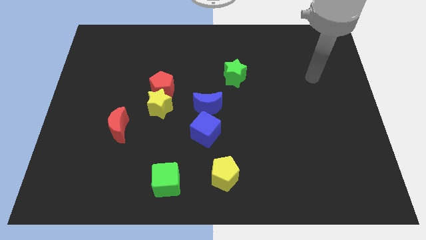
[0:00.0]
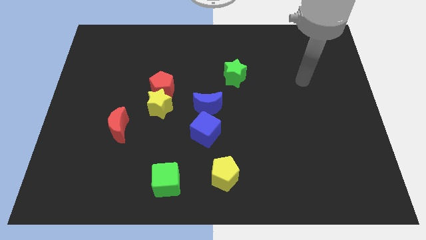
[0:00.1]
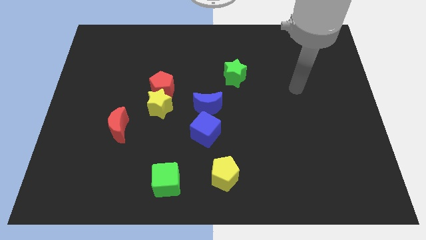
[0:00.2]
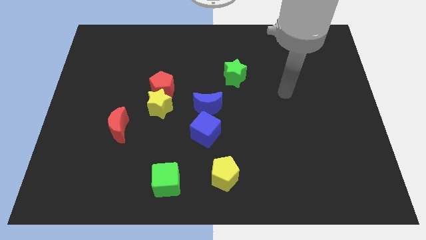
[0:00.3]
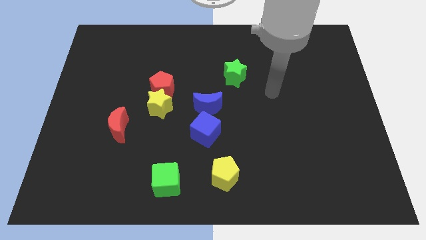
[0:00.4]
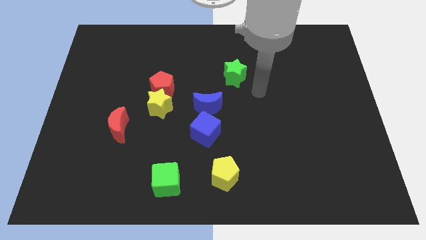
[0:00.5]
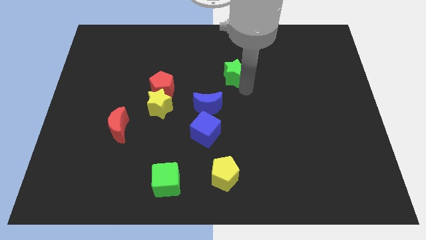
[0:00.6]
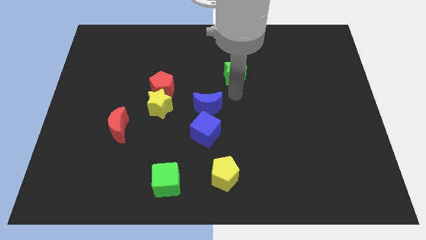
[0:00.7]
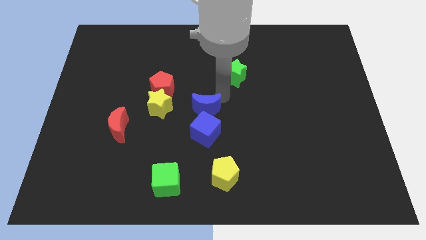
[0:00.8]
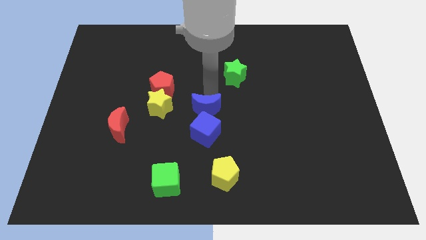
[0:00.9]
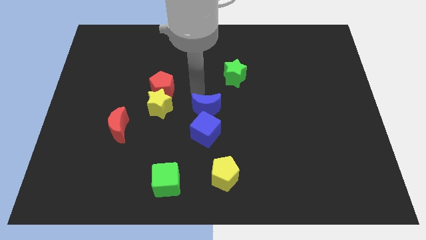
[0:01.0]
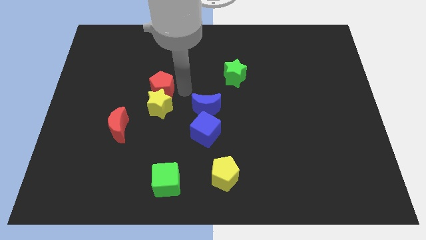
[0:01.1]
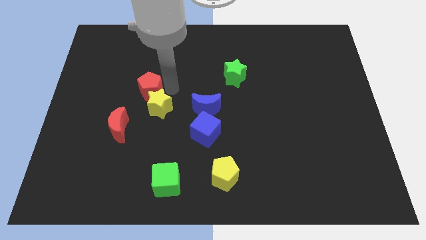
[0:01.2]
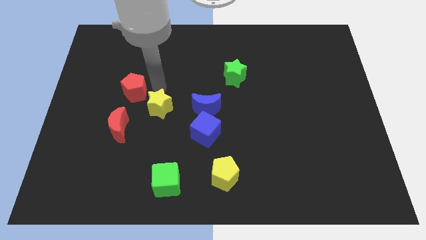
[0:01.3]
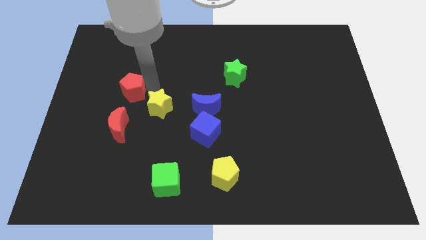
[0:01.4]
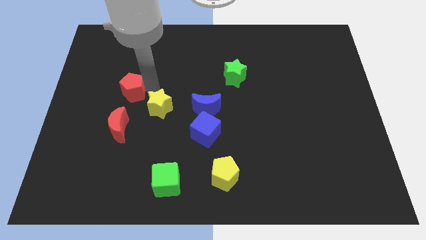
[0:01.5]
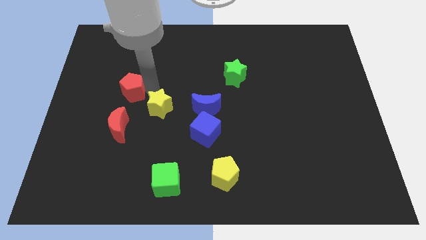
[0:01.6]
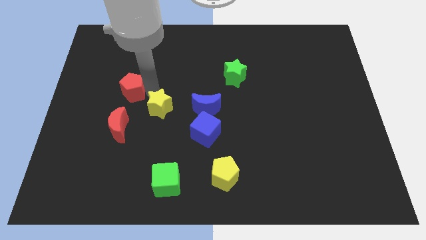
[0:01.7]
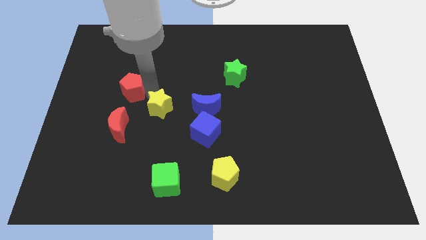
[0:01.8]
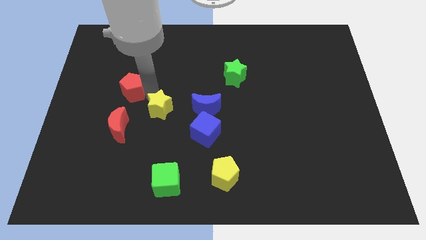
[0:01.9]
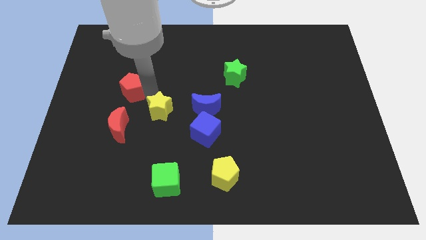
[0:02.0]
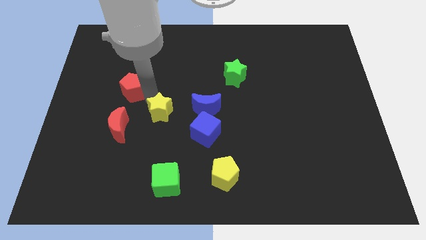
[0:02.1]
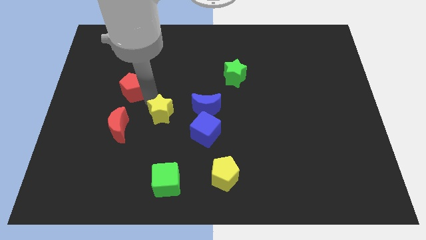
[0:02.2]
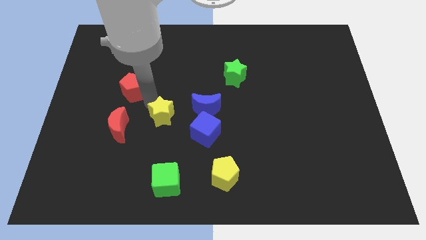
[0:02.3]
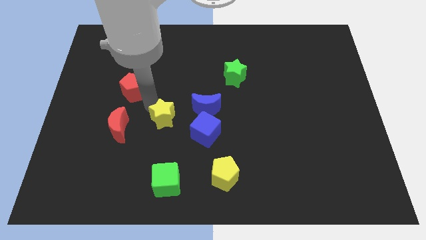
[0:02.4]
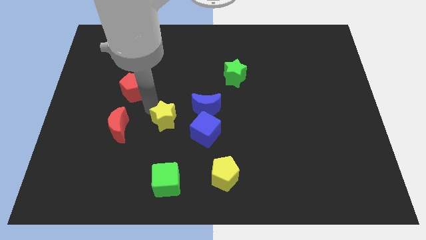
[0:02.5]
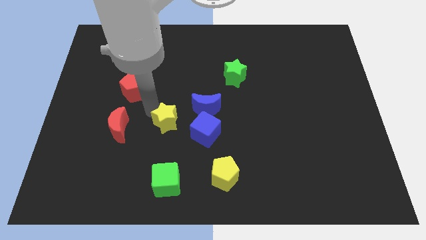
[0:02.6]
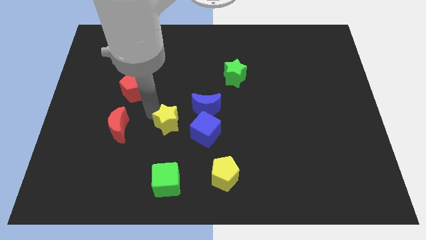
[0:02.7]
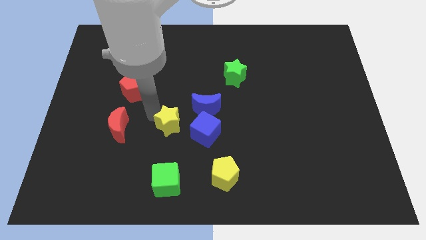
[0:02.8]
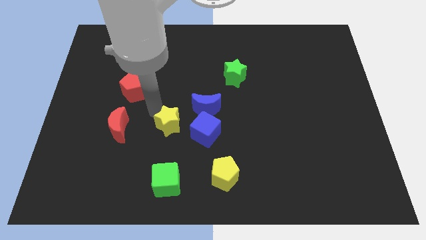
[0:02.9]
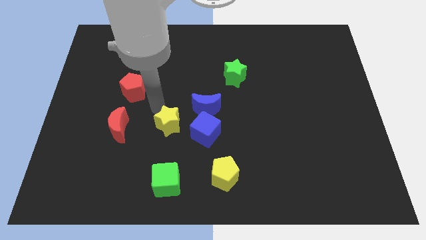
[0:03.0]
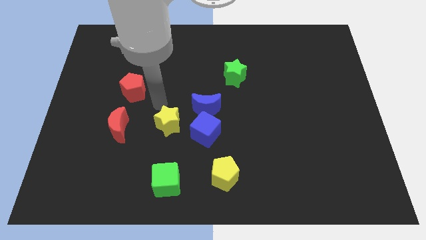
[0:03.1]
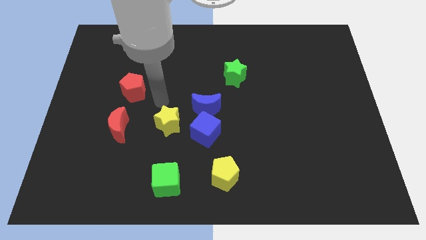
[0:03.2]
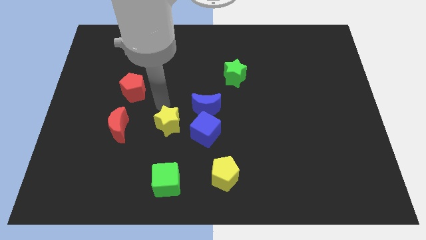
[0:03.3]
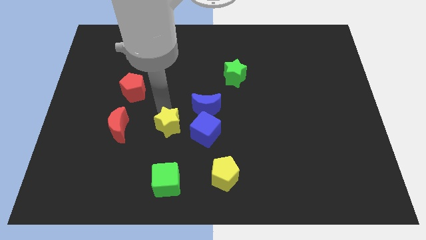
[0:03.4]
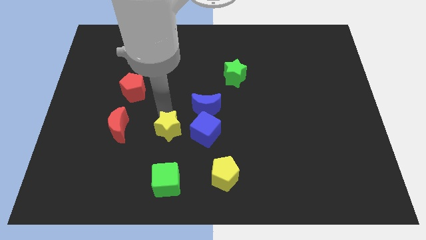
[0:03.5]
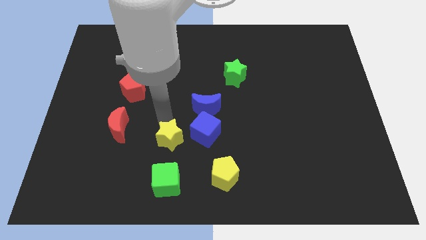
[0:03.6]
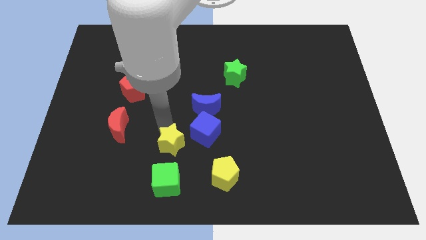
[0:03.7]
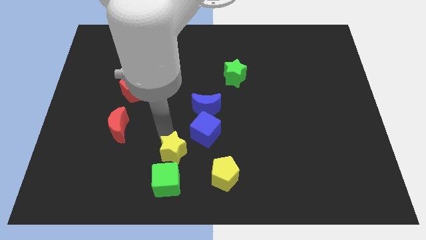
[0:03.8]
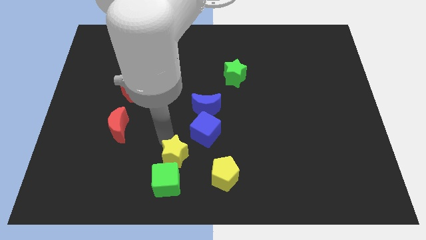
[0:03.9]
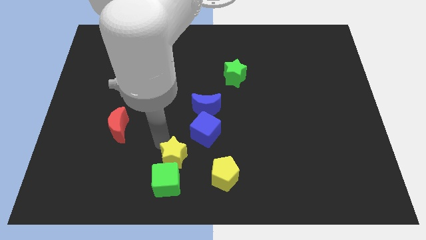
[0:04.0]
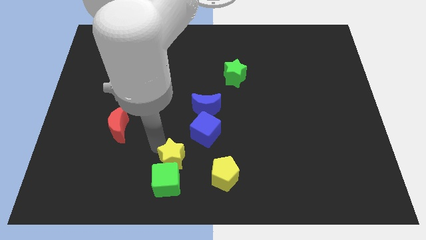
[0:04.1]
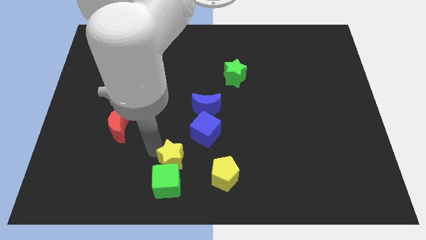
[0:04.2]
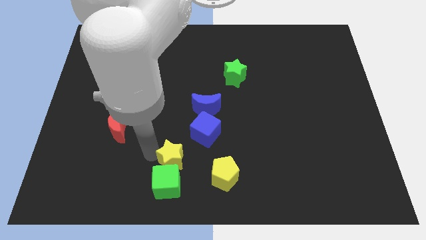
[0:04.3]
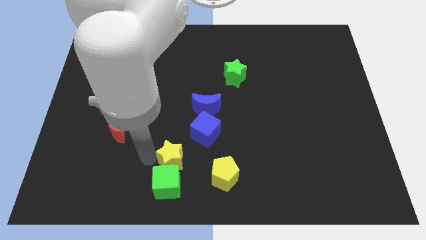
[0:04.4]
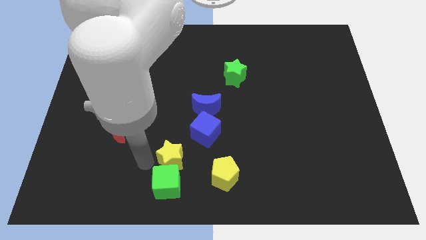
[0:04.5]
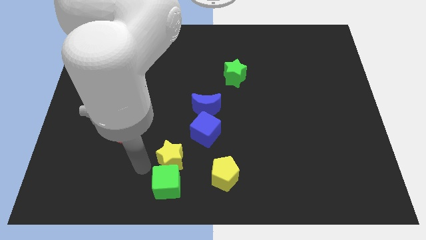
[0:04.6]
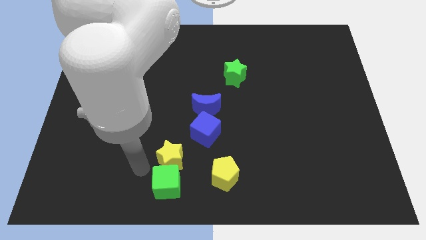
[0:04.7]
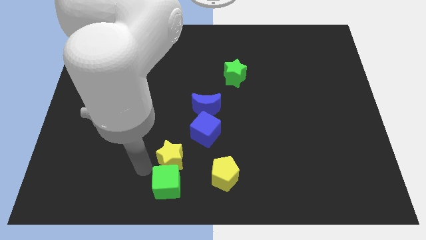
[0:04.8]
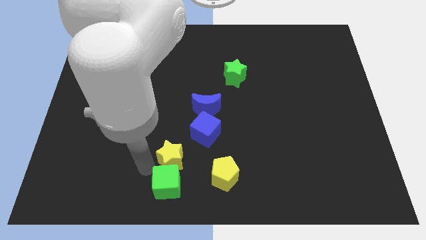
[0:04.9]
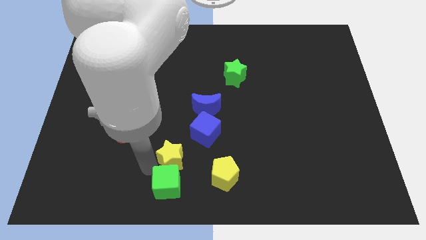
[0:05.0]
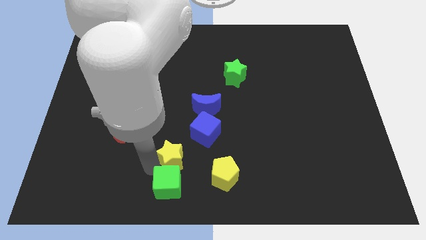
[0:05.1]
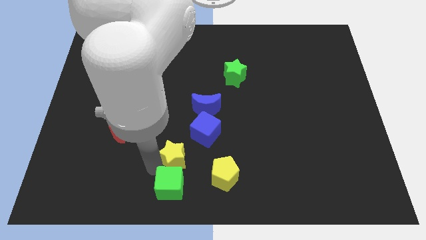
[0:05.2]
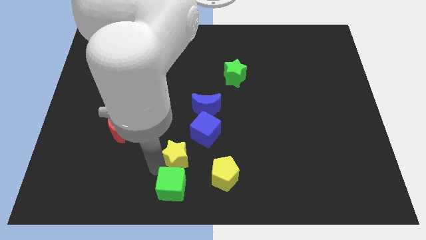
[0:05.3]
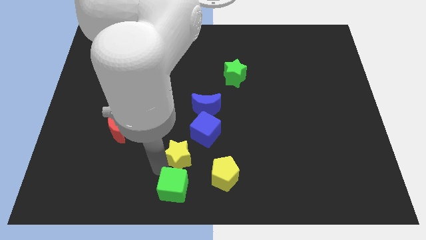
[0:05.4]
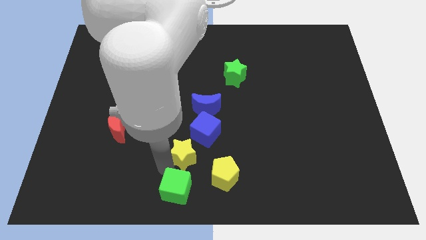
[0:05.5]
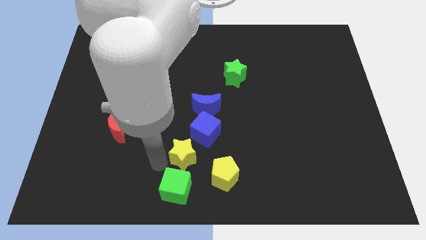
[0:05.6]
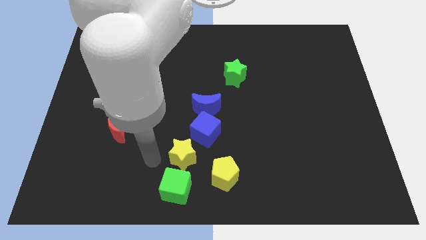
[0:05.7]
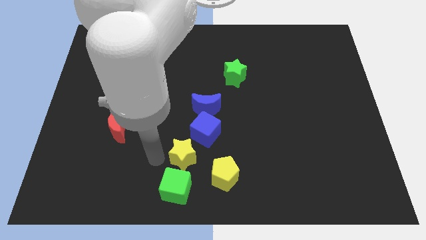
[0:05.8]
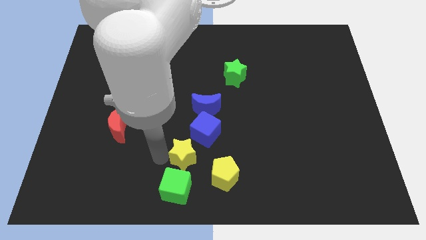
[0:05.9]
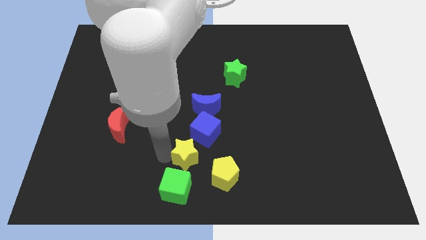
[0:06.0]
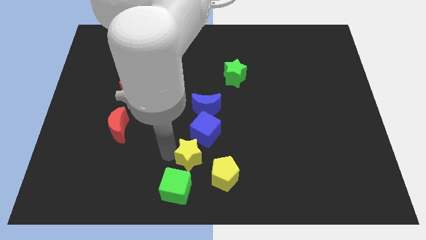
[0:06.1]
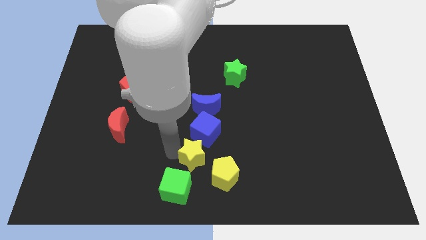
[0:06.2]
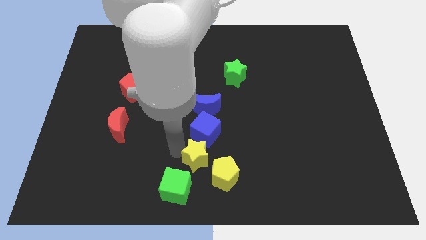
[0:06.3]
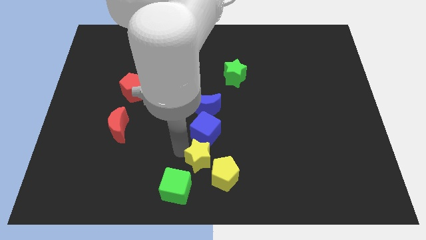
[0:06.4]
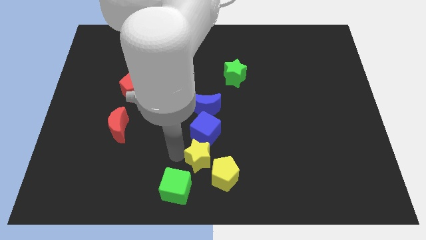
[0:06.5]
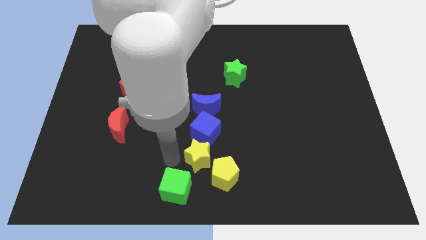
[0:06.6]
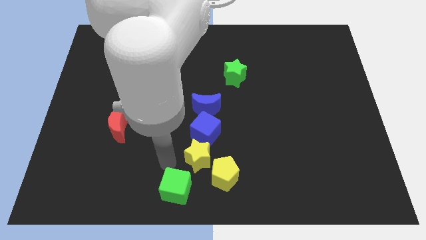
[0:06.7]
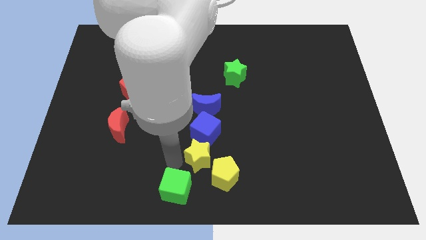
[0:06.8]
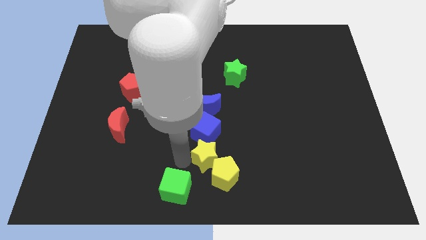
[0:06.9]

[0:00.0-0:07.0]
push the yellow star diagonally down and to the right of the blue cube

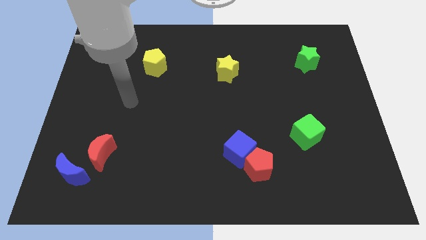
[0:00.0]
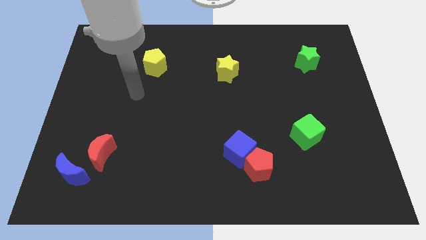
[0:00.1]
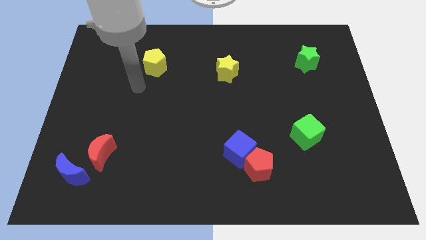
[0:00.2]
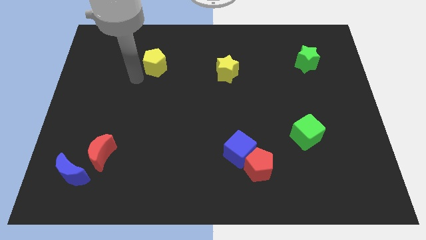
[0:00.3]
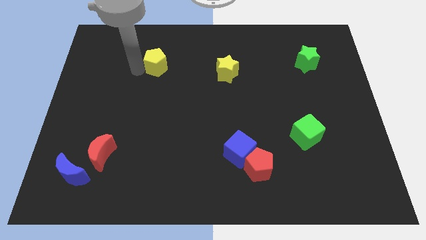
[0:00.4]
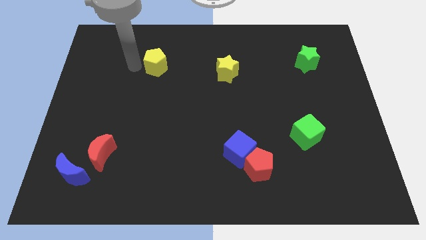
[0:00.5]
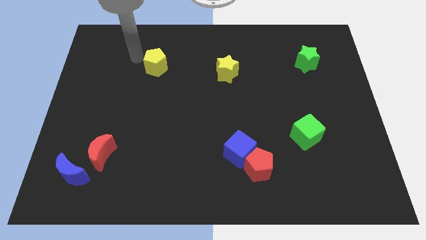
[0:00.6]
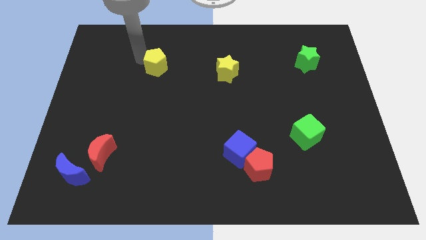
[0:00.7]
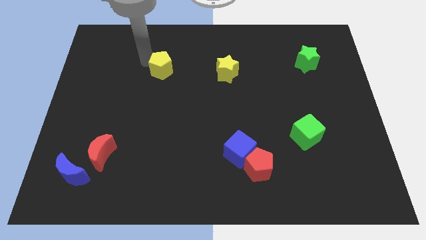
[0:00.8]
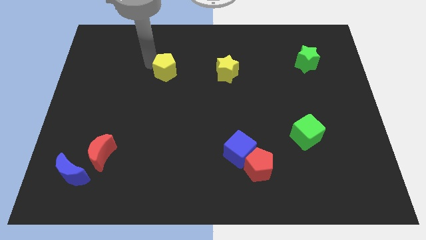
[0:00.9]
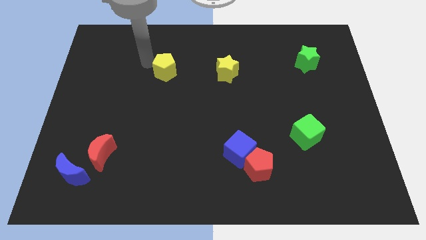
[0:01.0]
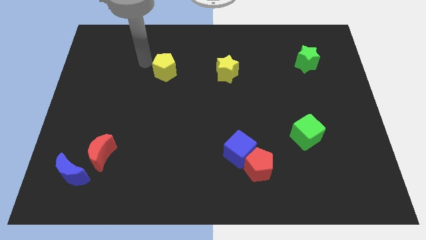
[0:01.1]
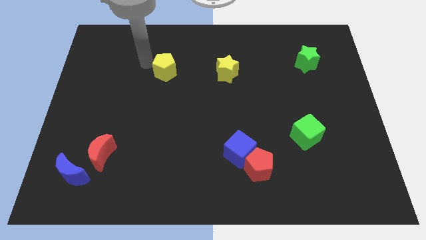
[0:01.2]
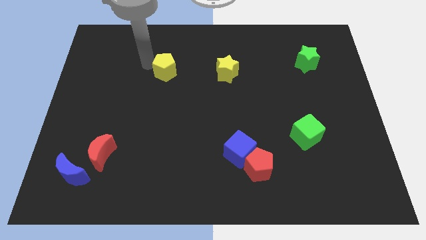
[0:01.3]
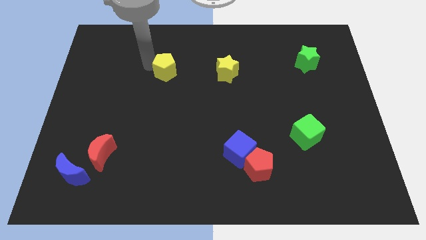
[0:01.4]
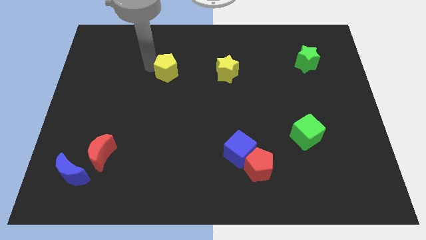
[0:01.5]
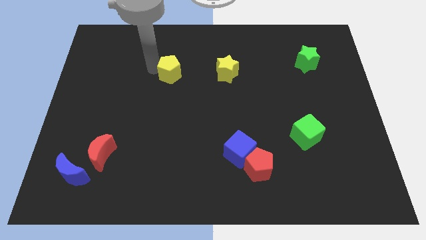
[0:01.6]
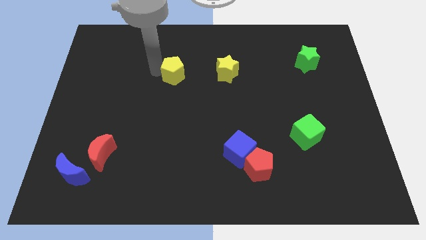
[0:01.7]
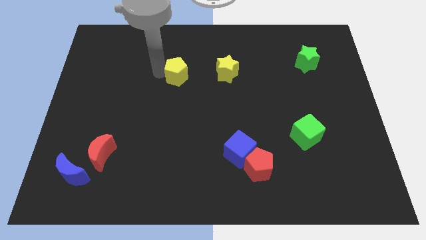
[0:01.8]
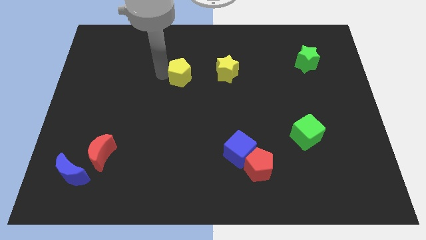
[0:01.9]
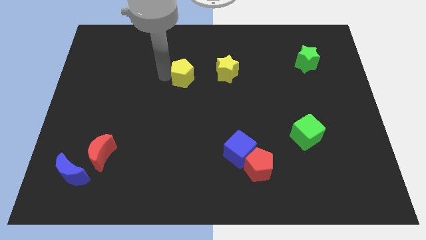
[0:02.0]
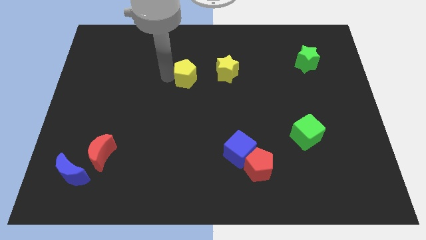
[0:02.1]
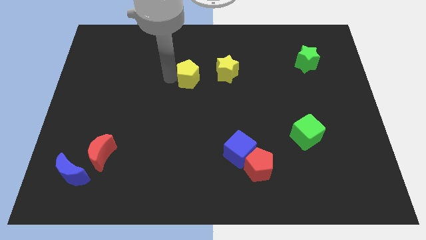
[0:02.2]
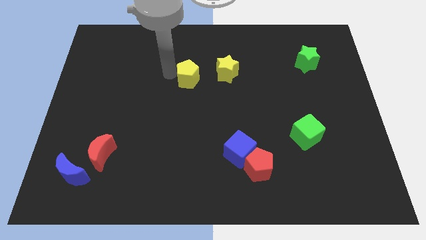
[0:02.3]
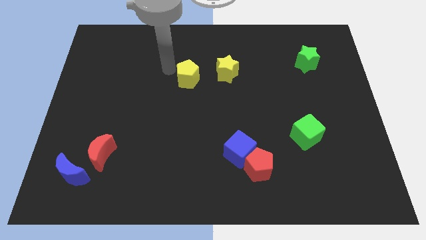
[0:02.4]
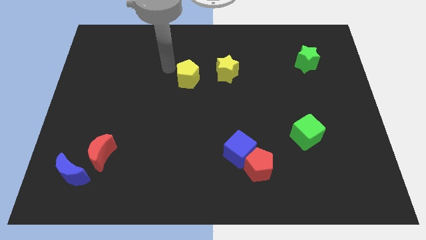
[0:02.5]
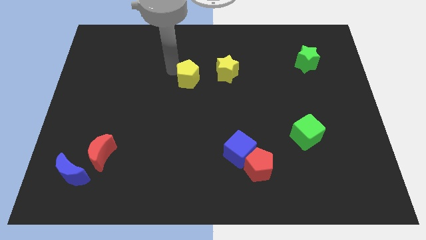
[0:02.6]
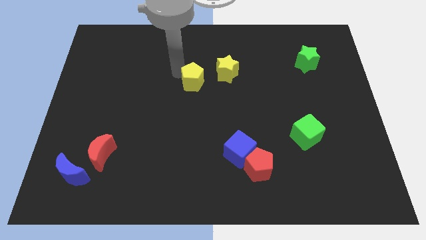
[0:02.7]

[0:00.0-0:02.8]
slide the yellow pentagon to the bottom left of the yellow star
